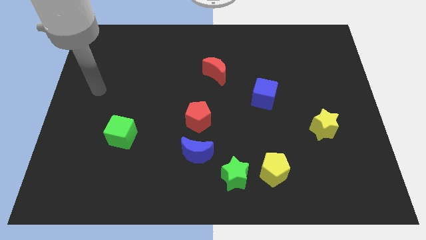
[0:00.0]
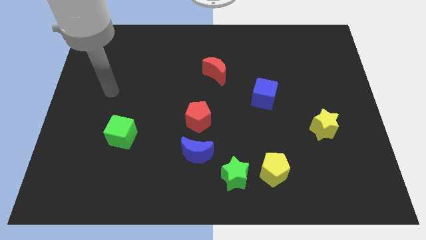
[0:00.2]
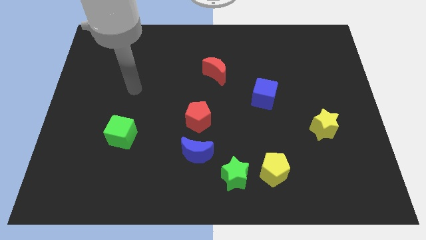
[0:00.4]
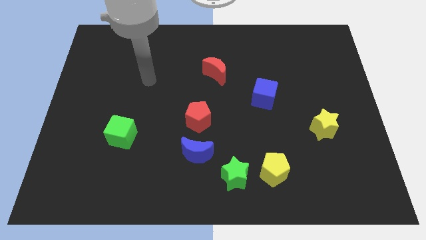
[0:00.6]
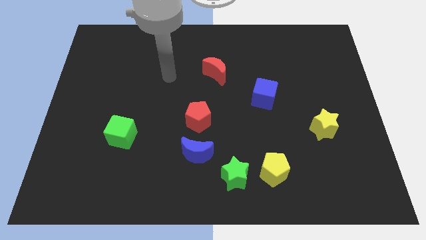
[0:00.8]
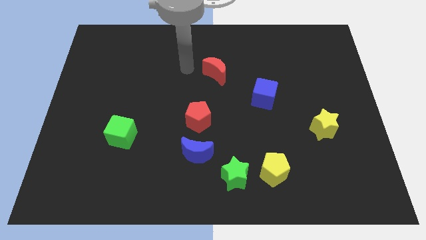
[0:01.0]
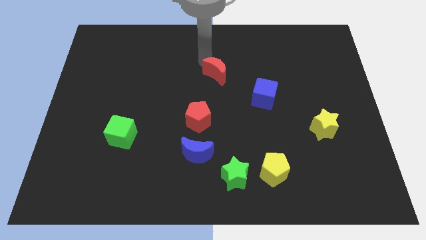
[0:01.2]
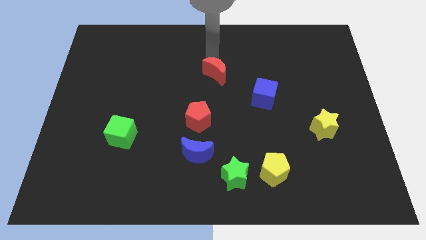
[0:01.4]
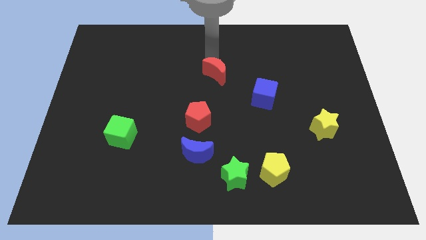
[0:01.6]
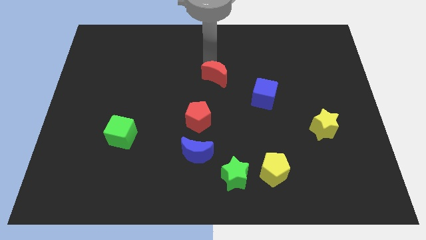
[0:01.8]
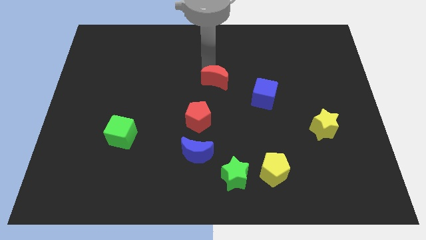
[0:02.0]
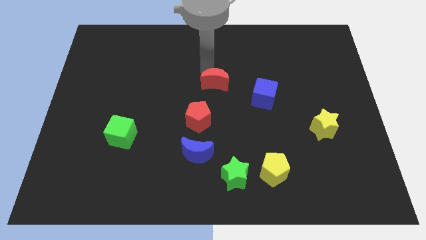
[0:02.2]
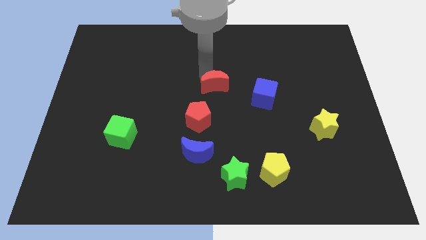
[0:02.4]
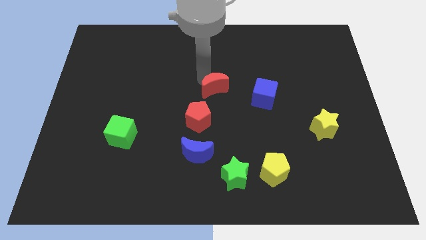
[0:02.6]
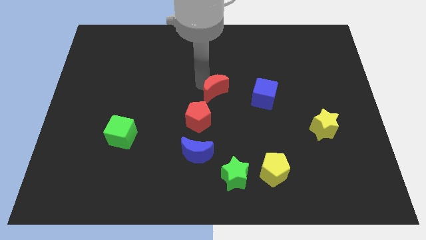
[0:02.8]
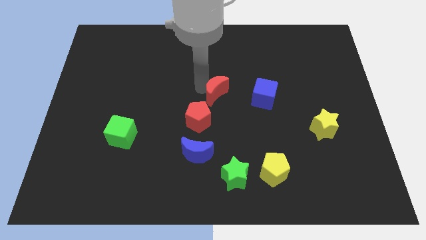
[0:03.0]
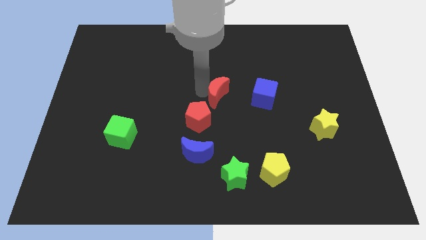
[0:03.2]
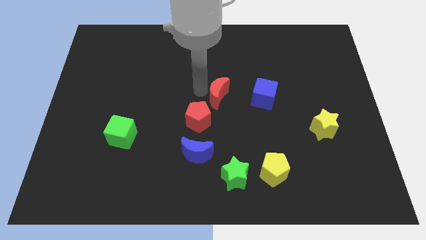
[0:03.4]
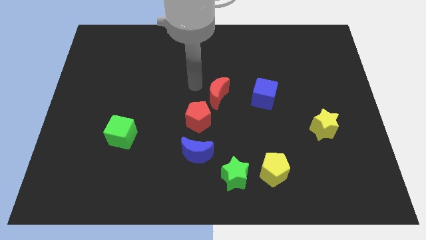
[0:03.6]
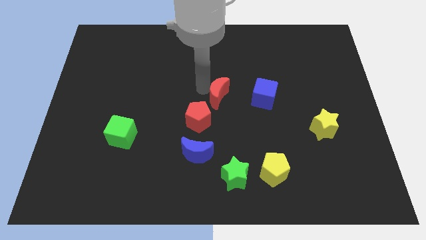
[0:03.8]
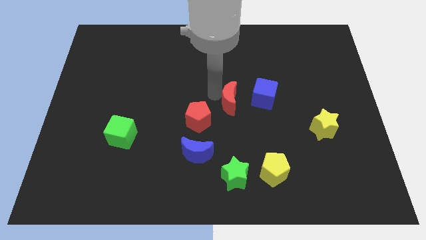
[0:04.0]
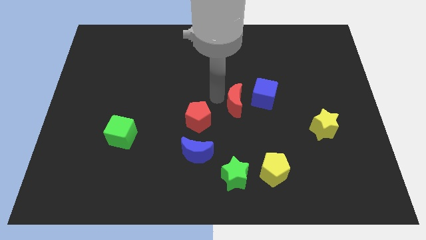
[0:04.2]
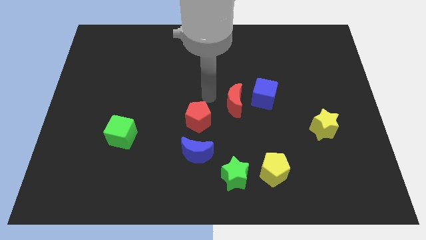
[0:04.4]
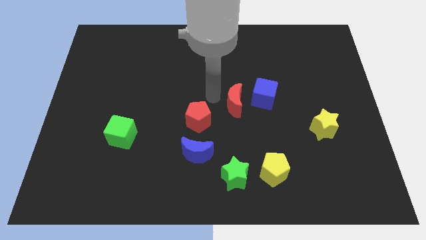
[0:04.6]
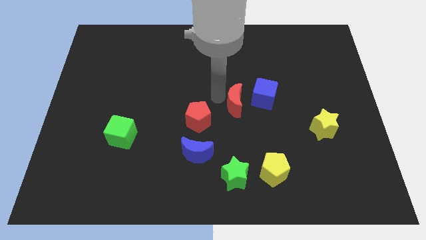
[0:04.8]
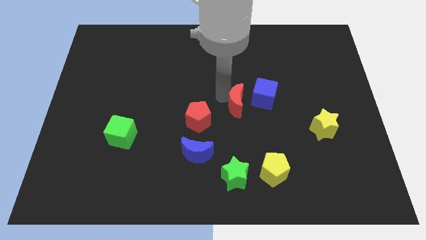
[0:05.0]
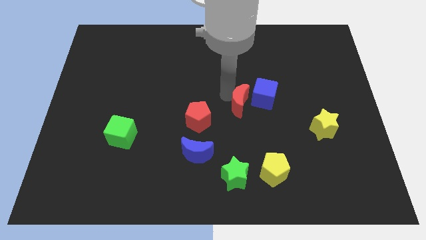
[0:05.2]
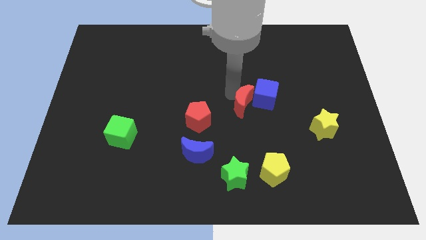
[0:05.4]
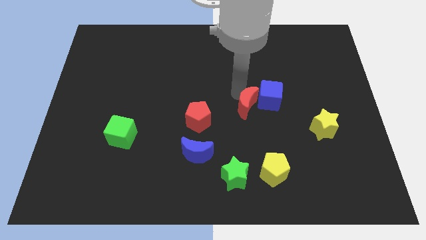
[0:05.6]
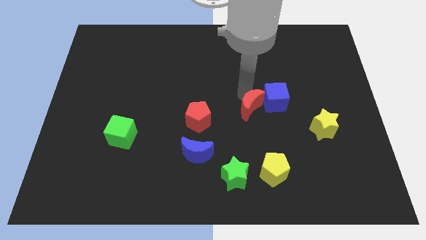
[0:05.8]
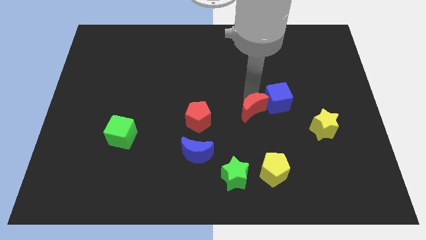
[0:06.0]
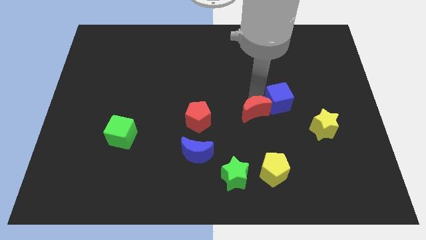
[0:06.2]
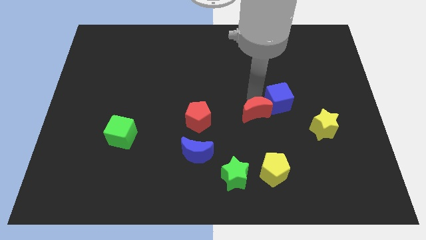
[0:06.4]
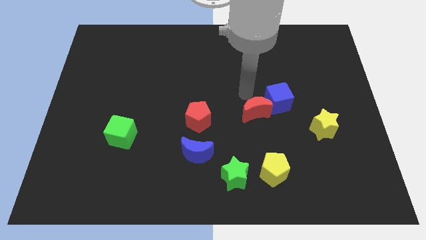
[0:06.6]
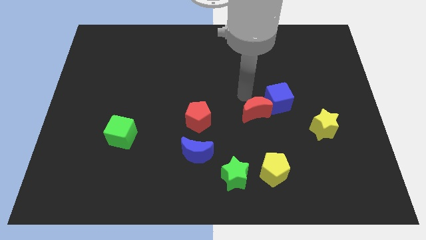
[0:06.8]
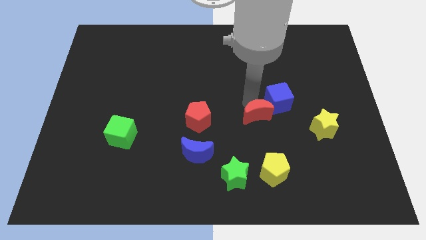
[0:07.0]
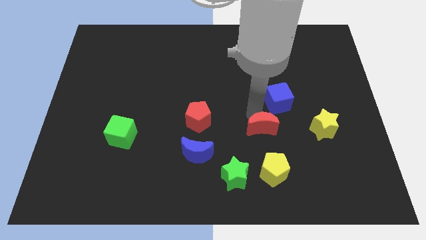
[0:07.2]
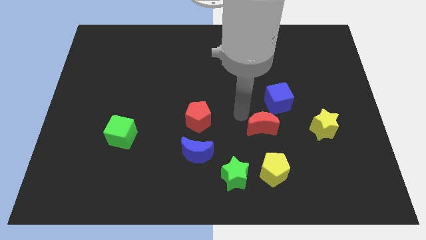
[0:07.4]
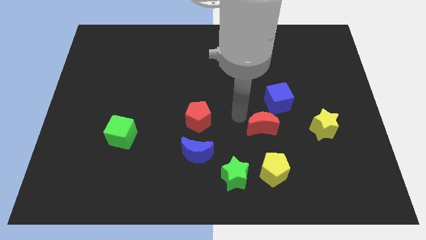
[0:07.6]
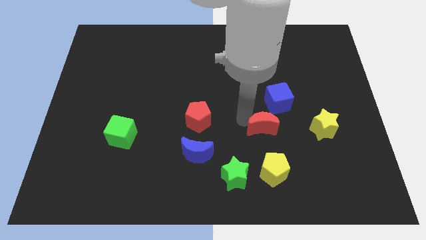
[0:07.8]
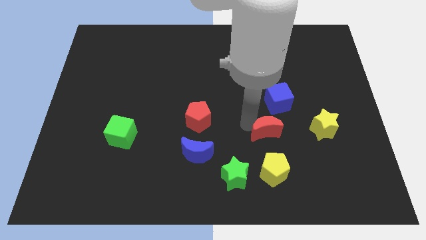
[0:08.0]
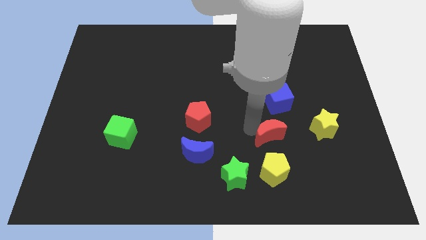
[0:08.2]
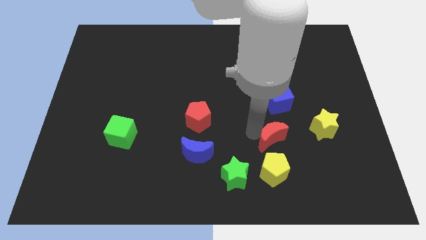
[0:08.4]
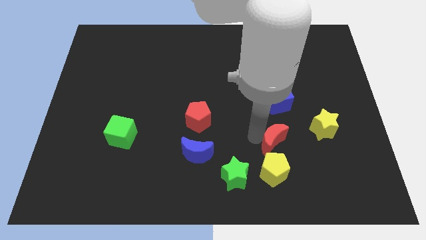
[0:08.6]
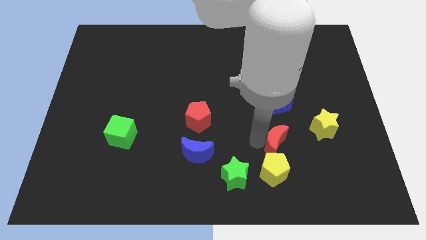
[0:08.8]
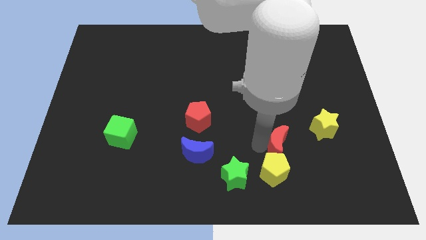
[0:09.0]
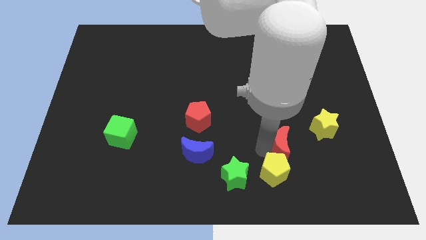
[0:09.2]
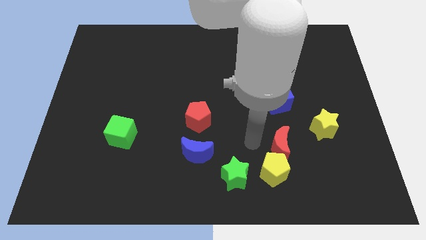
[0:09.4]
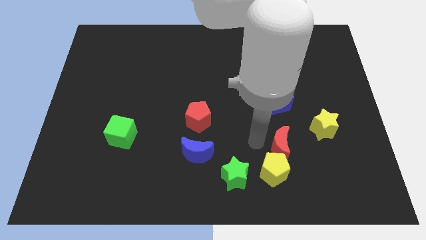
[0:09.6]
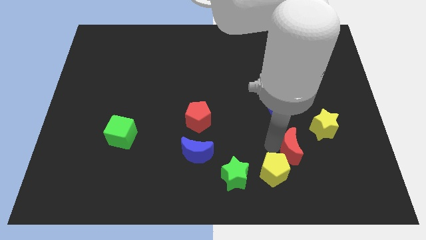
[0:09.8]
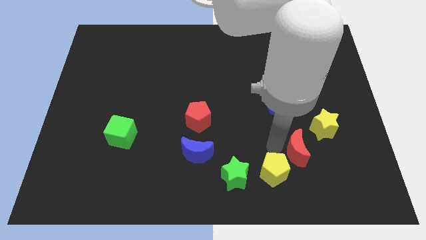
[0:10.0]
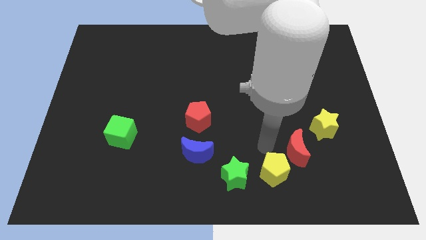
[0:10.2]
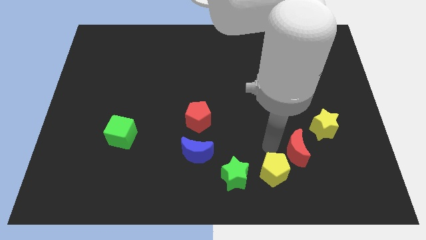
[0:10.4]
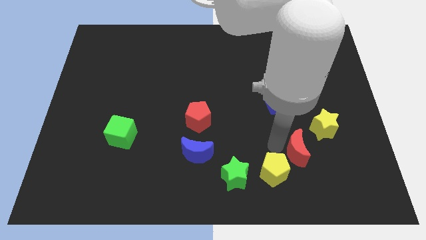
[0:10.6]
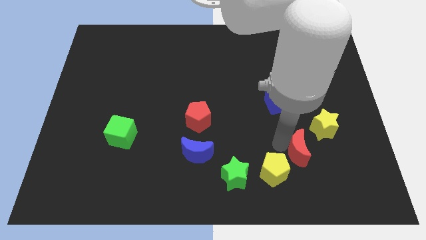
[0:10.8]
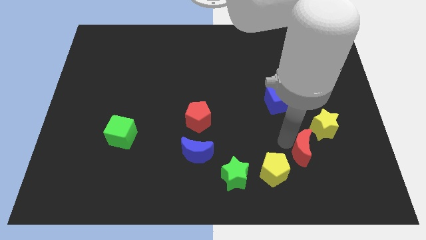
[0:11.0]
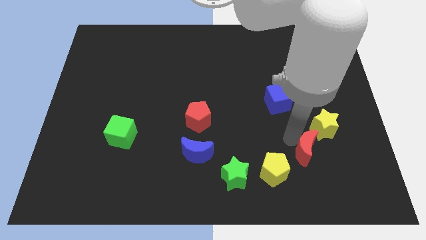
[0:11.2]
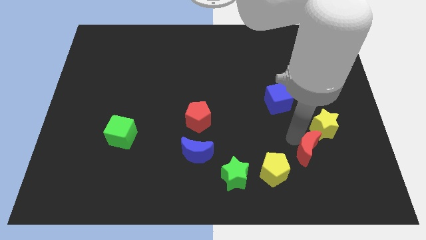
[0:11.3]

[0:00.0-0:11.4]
put the red moon to the bottom of the yellow star

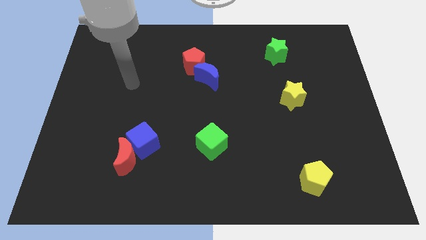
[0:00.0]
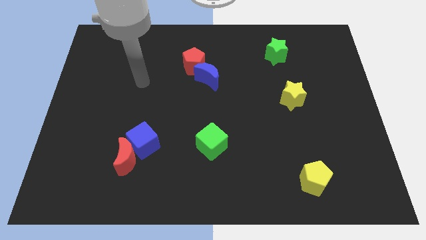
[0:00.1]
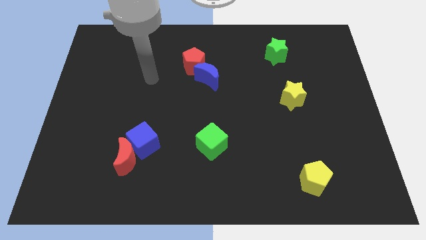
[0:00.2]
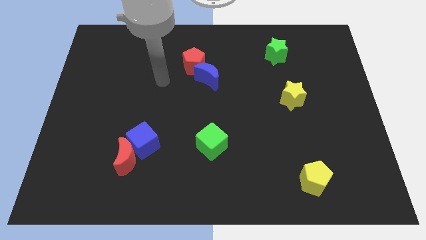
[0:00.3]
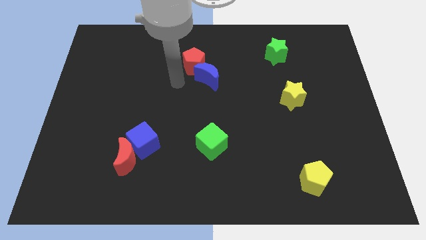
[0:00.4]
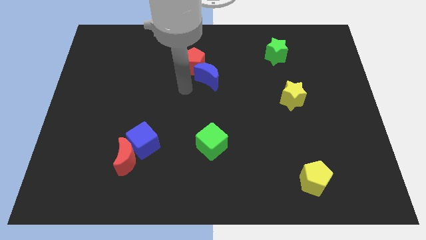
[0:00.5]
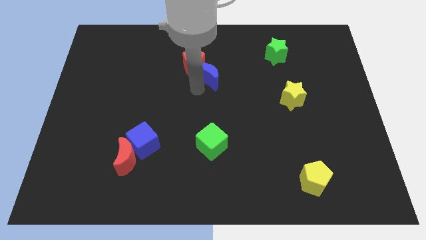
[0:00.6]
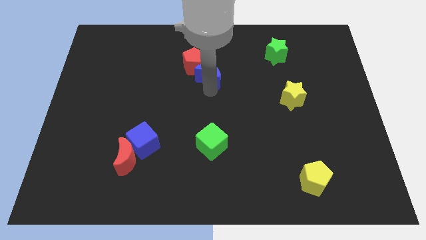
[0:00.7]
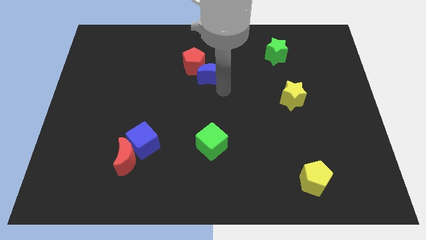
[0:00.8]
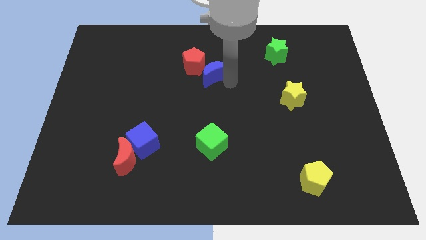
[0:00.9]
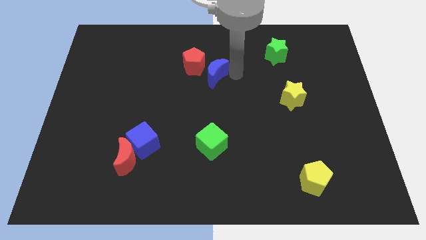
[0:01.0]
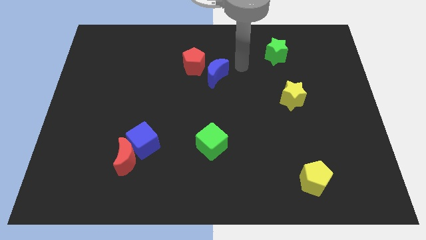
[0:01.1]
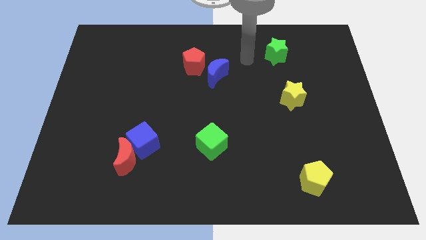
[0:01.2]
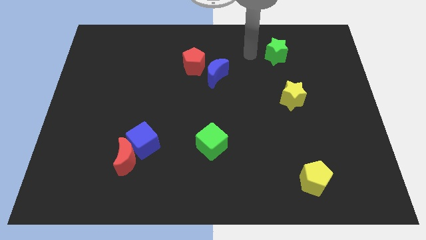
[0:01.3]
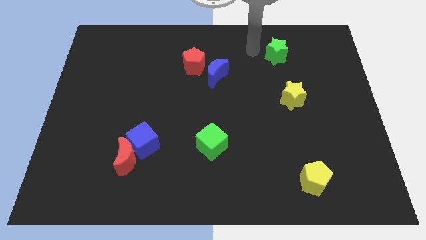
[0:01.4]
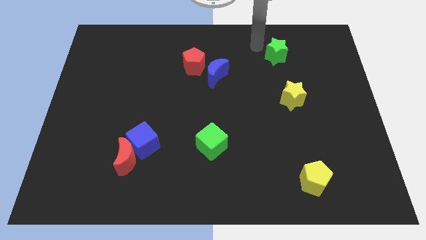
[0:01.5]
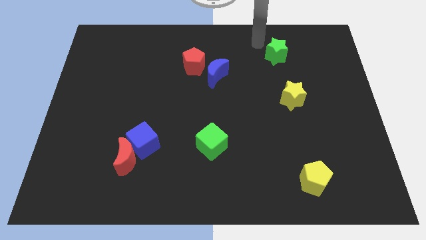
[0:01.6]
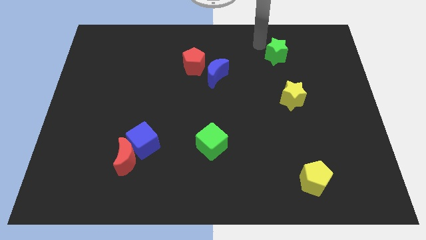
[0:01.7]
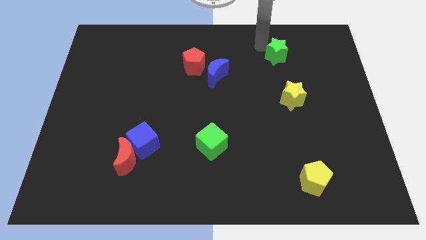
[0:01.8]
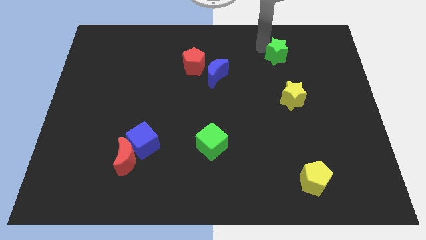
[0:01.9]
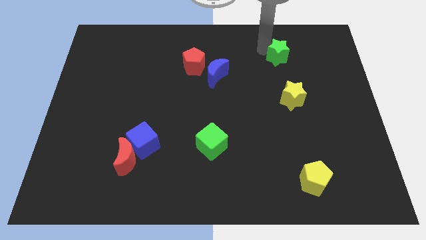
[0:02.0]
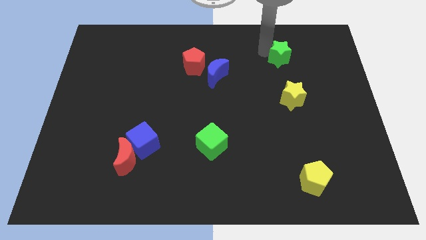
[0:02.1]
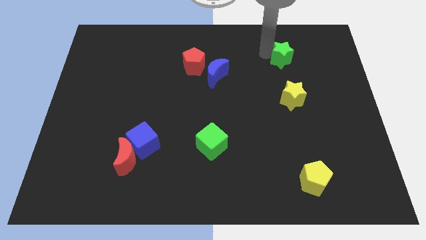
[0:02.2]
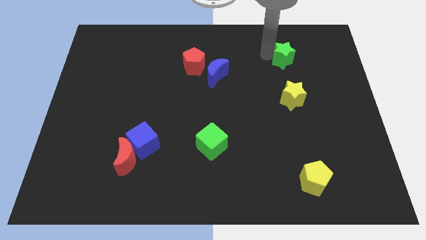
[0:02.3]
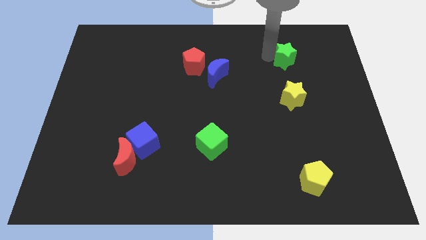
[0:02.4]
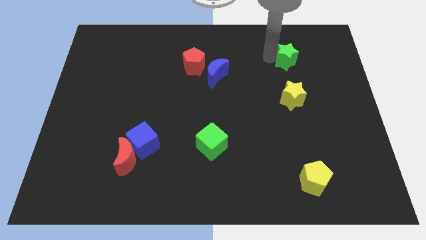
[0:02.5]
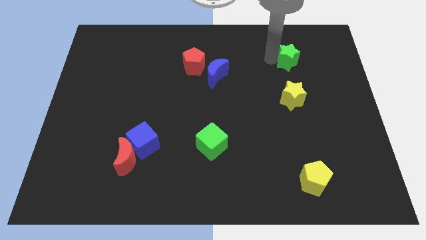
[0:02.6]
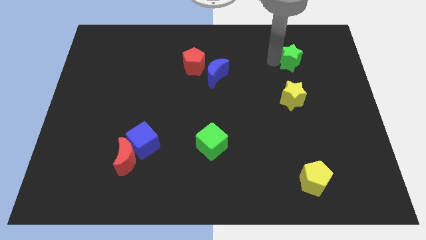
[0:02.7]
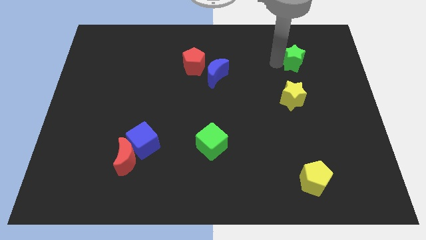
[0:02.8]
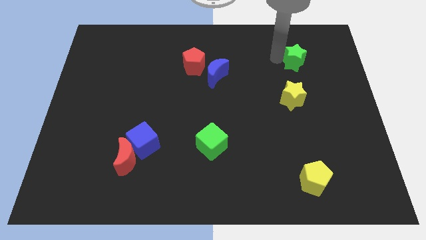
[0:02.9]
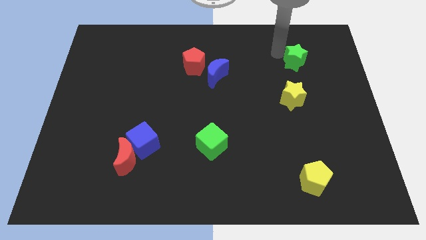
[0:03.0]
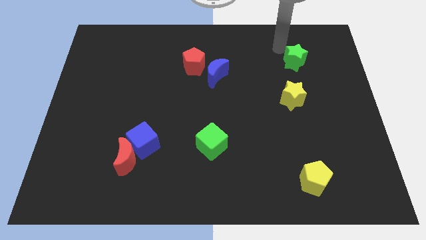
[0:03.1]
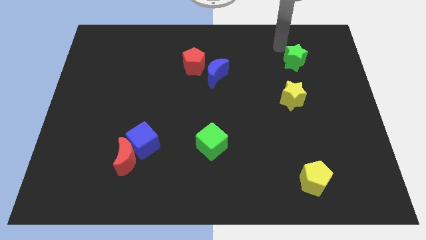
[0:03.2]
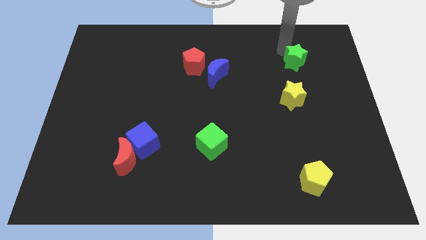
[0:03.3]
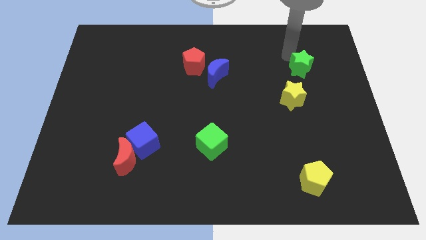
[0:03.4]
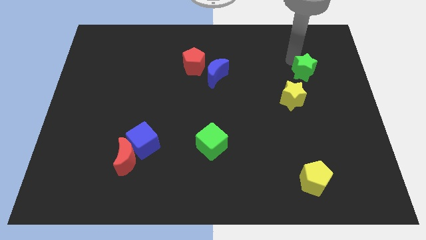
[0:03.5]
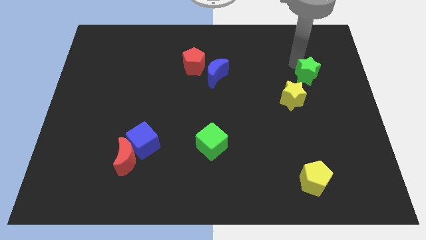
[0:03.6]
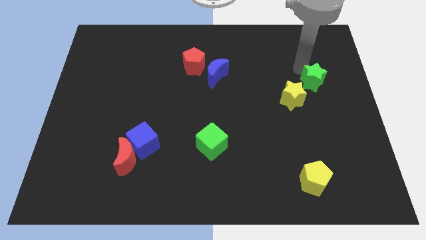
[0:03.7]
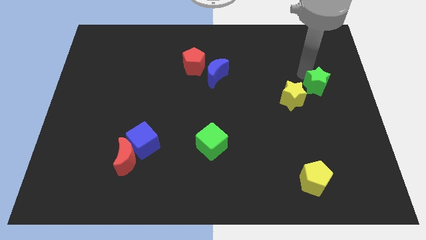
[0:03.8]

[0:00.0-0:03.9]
slide the green star right of the yellow star
